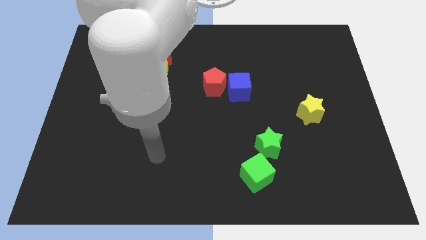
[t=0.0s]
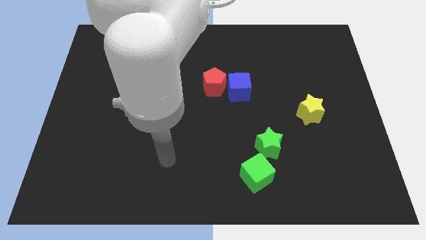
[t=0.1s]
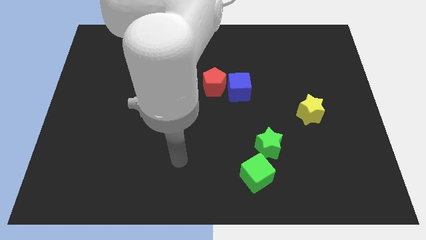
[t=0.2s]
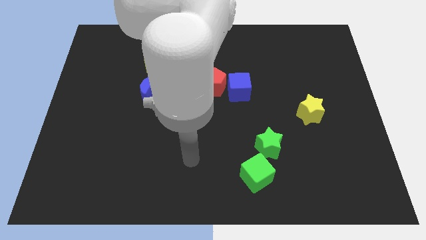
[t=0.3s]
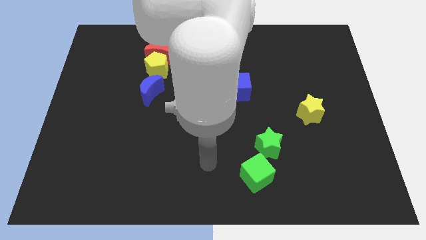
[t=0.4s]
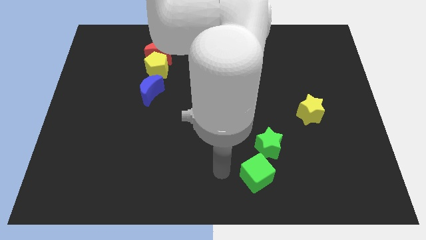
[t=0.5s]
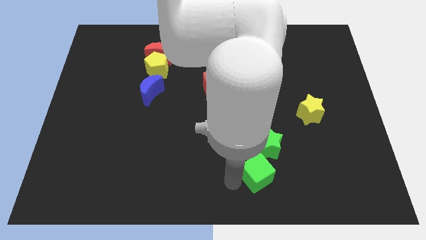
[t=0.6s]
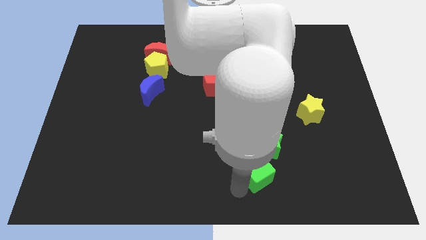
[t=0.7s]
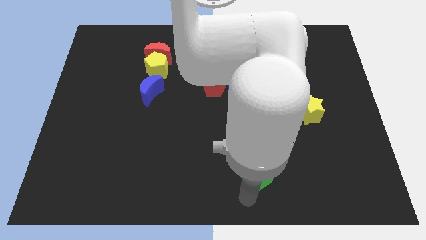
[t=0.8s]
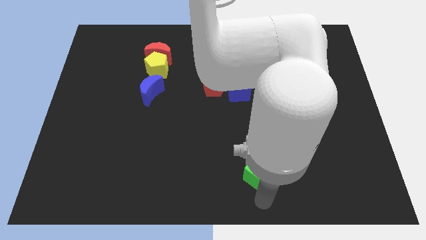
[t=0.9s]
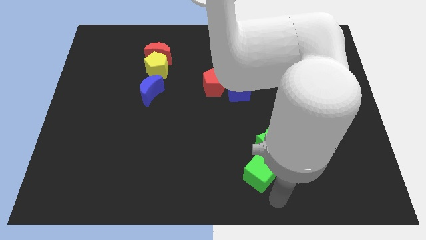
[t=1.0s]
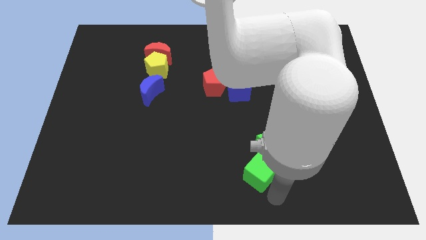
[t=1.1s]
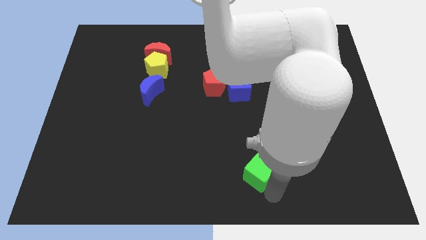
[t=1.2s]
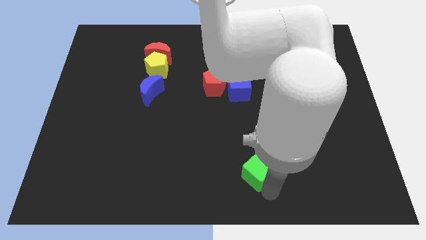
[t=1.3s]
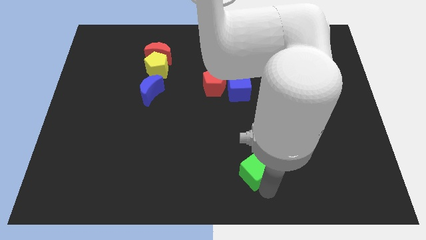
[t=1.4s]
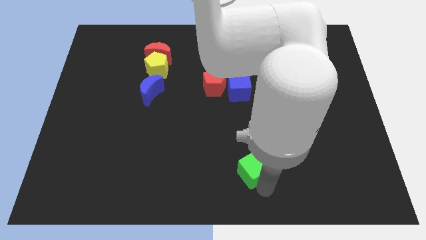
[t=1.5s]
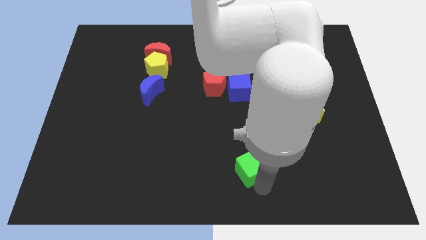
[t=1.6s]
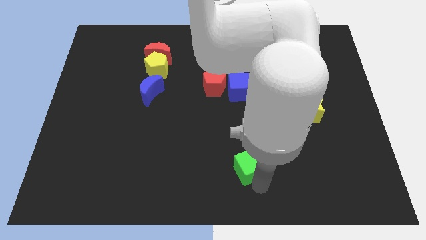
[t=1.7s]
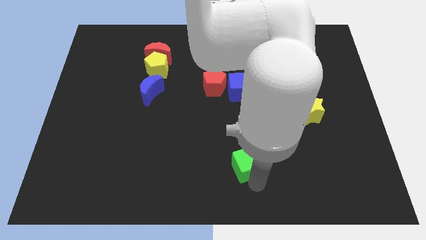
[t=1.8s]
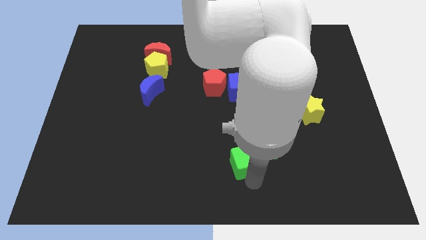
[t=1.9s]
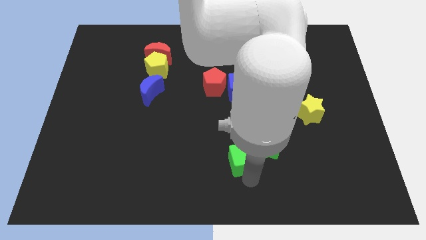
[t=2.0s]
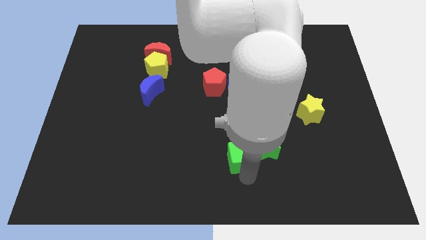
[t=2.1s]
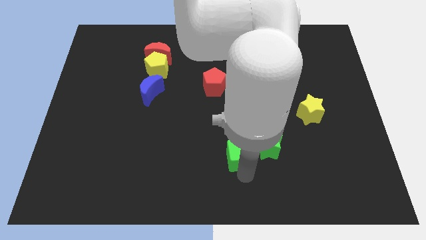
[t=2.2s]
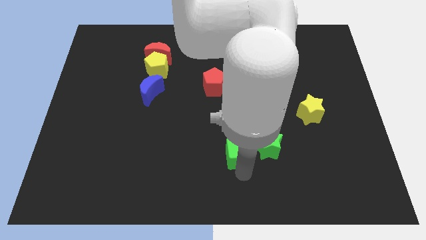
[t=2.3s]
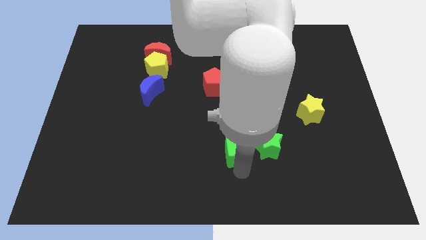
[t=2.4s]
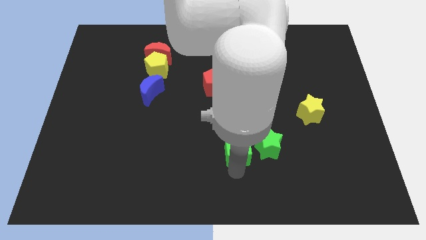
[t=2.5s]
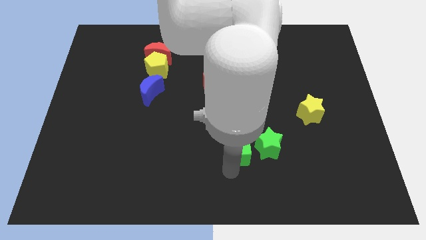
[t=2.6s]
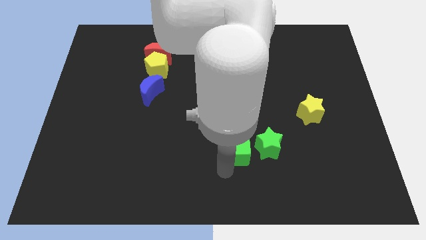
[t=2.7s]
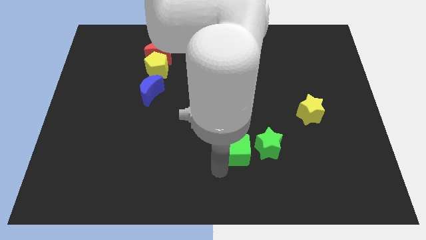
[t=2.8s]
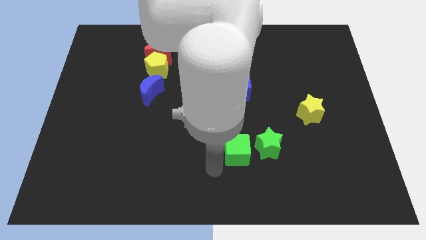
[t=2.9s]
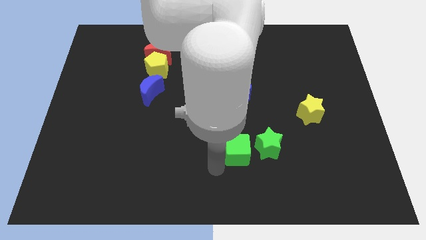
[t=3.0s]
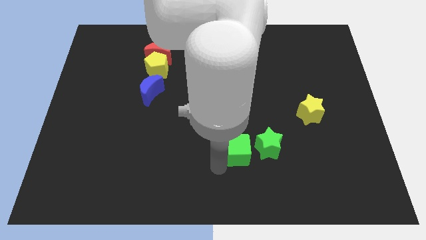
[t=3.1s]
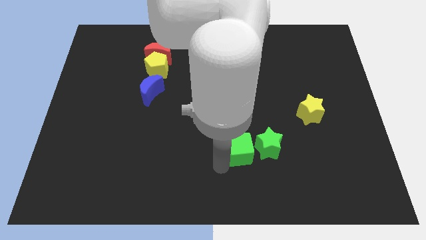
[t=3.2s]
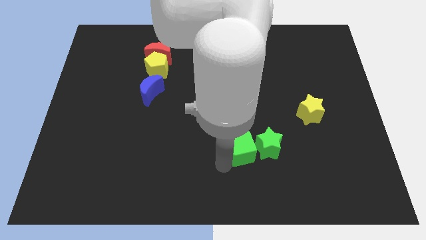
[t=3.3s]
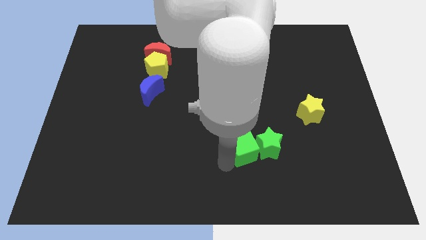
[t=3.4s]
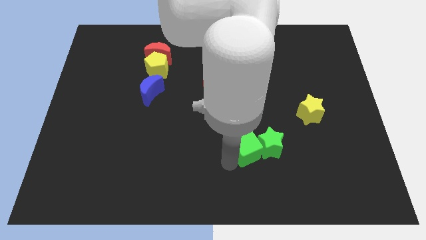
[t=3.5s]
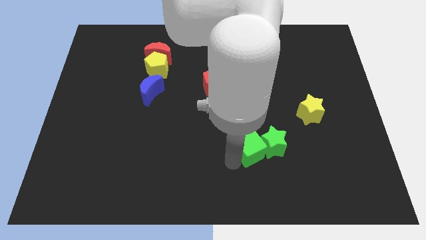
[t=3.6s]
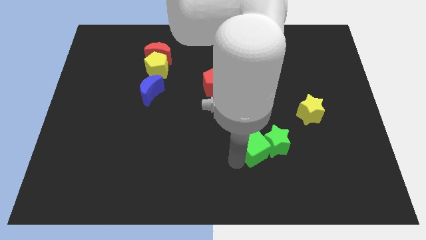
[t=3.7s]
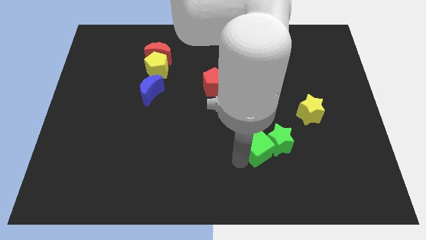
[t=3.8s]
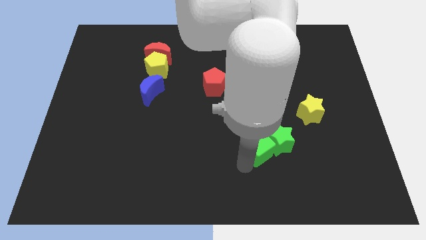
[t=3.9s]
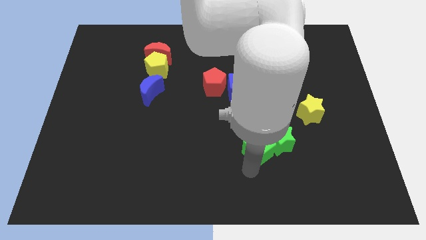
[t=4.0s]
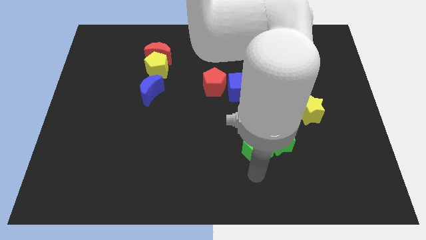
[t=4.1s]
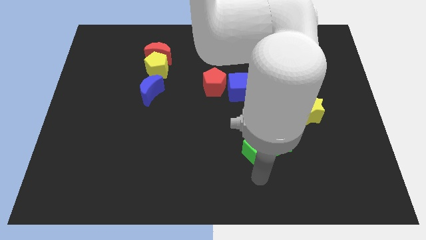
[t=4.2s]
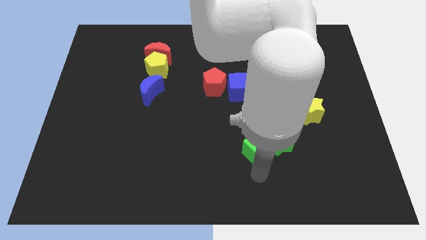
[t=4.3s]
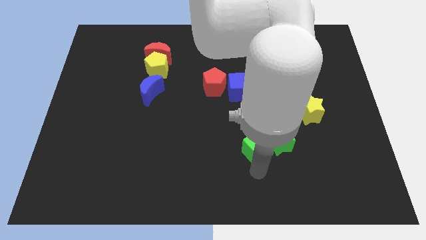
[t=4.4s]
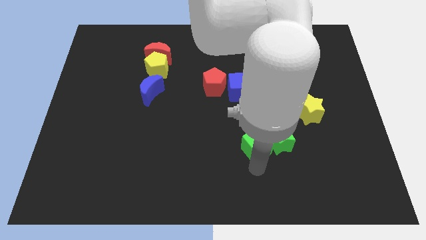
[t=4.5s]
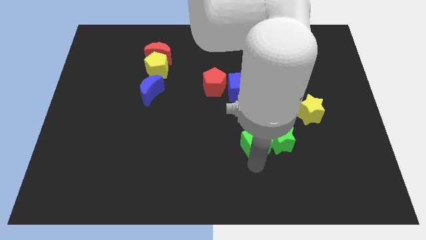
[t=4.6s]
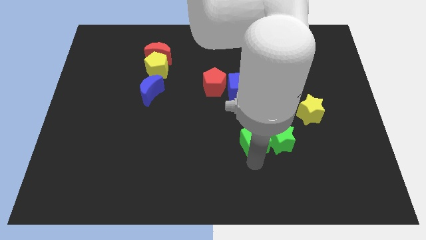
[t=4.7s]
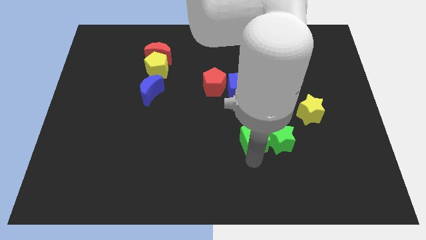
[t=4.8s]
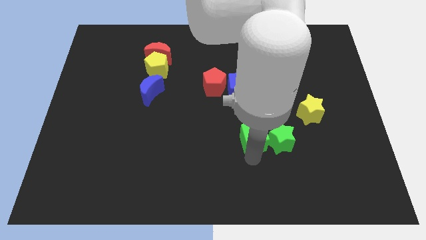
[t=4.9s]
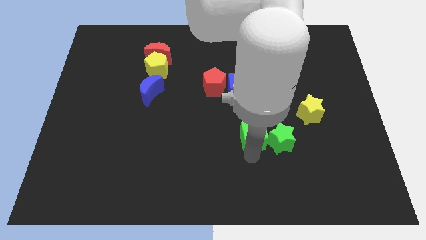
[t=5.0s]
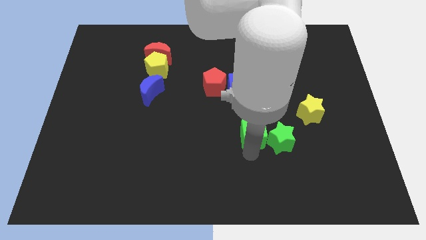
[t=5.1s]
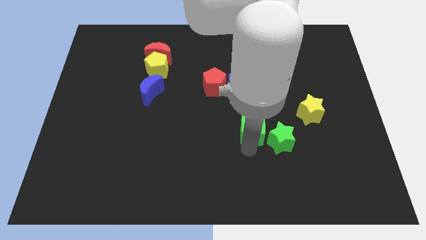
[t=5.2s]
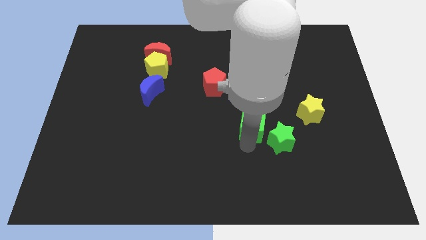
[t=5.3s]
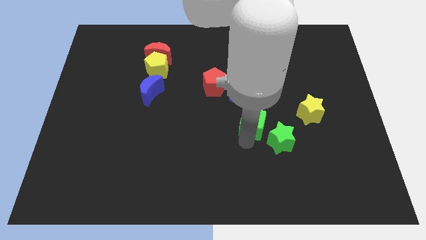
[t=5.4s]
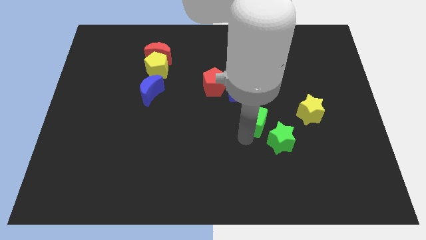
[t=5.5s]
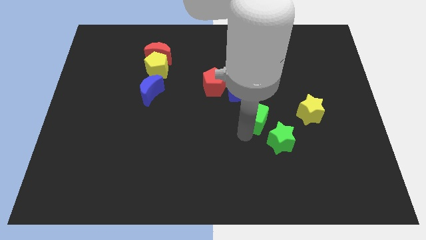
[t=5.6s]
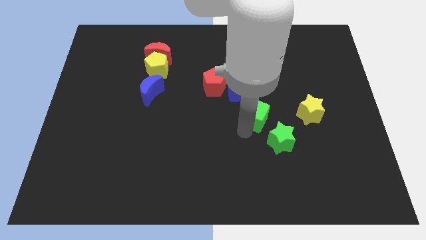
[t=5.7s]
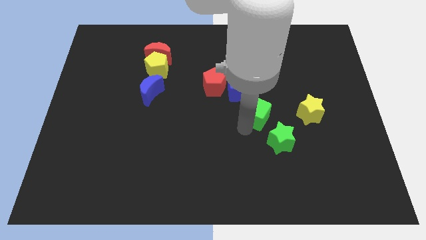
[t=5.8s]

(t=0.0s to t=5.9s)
move the green cube to the top of the green star

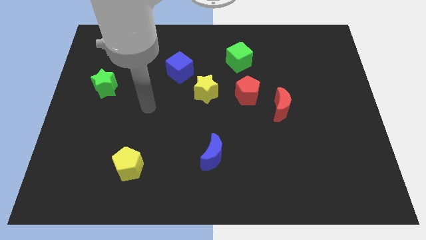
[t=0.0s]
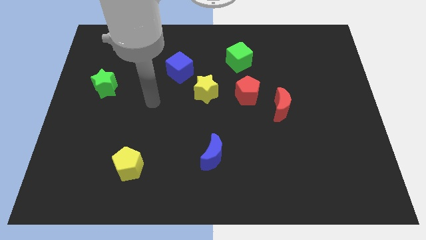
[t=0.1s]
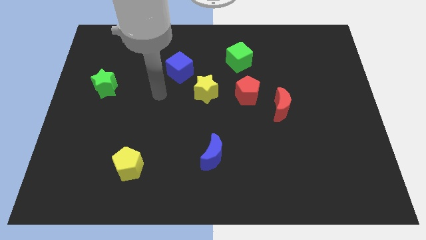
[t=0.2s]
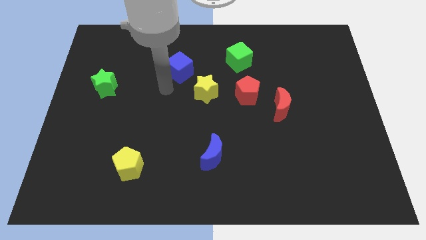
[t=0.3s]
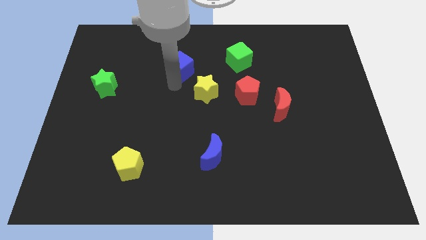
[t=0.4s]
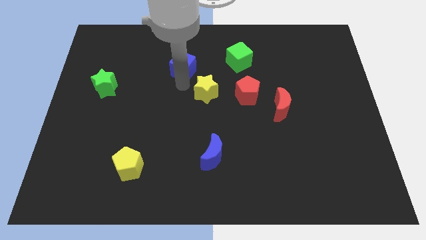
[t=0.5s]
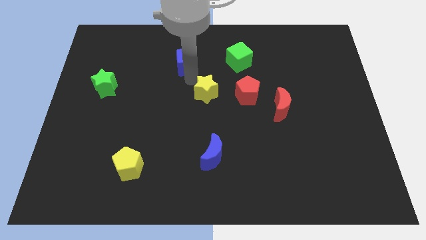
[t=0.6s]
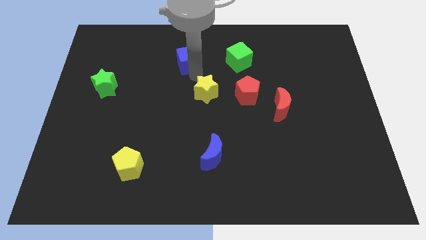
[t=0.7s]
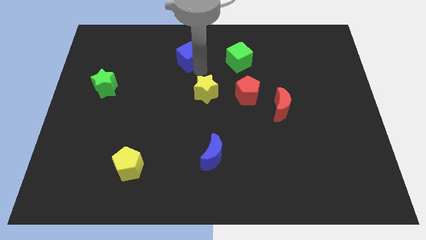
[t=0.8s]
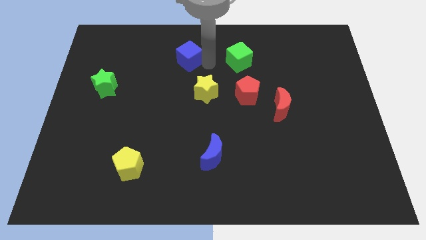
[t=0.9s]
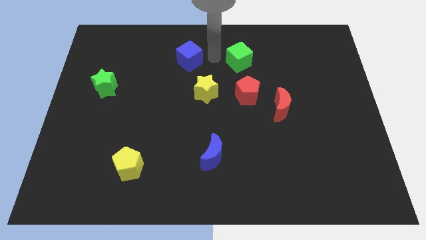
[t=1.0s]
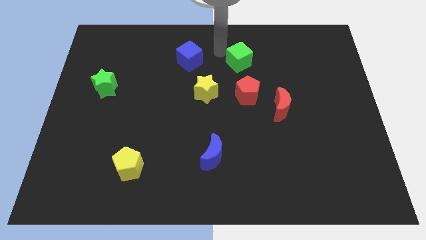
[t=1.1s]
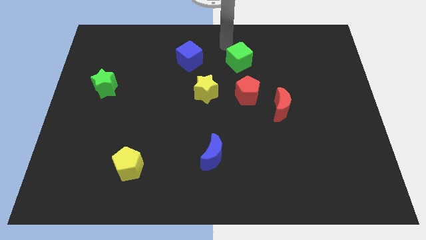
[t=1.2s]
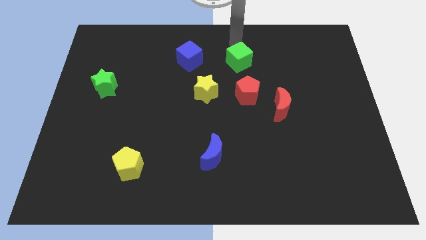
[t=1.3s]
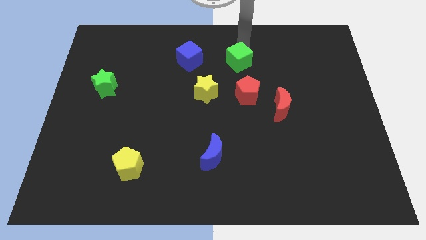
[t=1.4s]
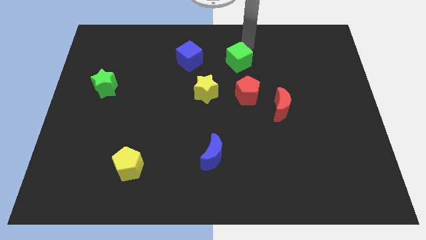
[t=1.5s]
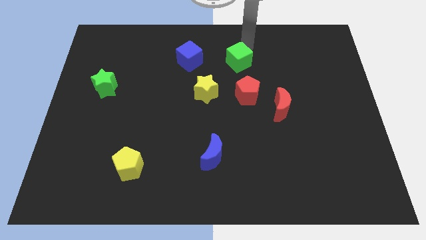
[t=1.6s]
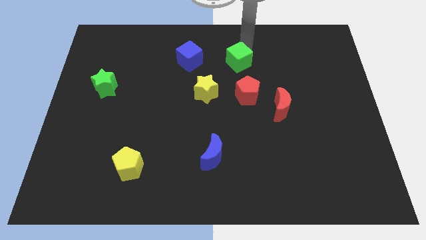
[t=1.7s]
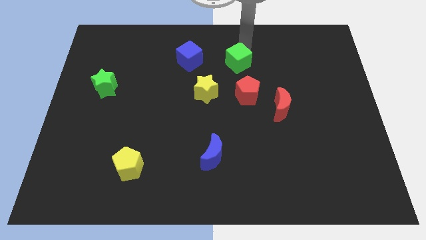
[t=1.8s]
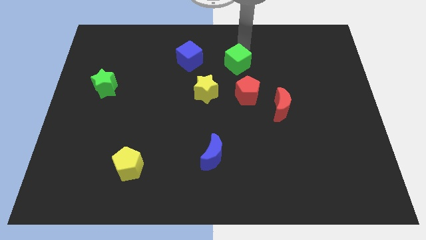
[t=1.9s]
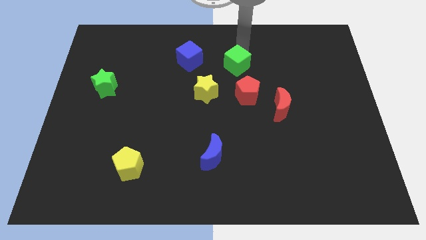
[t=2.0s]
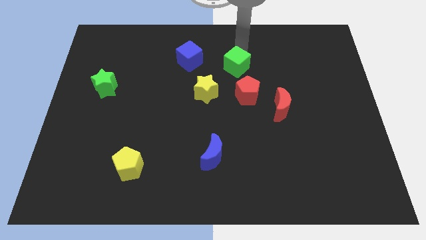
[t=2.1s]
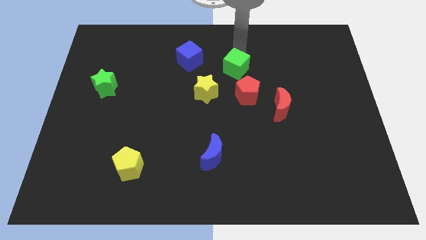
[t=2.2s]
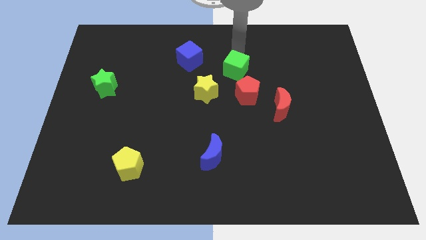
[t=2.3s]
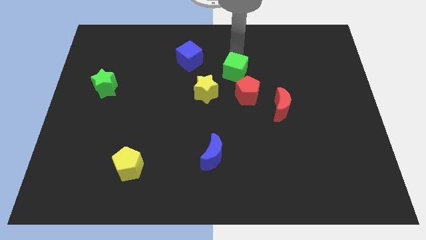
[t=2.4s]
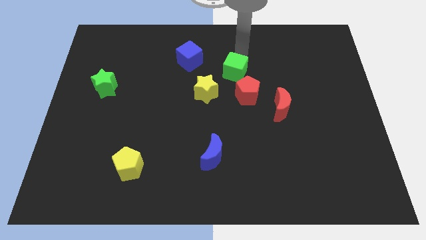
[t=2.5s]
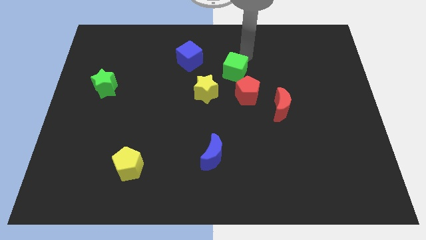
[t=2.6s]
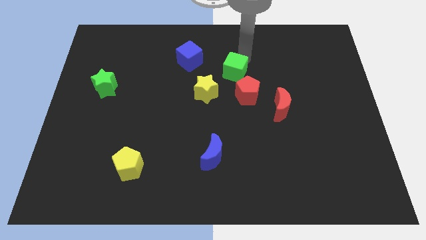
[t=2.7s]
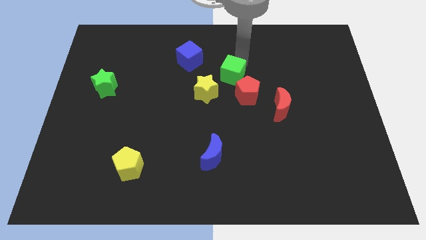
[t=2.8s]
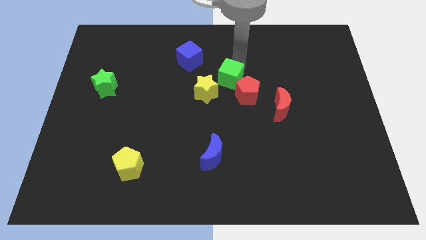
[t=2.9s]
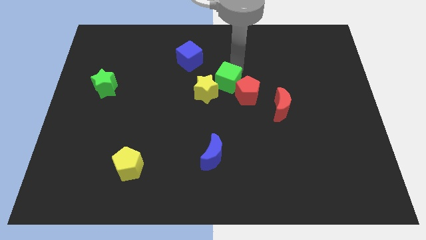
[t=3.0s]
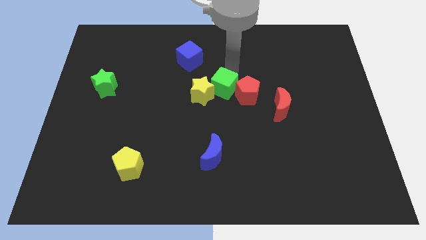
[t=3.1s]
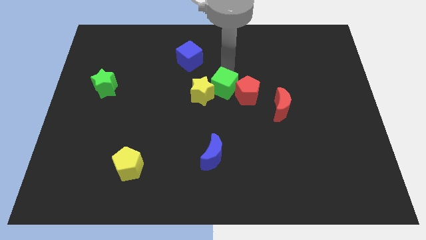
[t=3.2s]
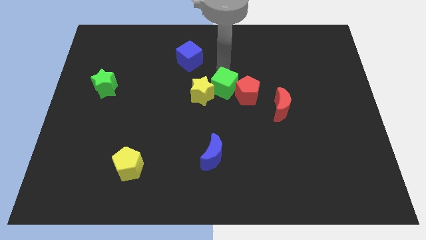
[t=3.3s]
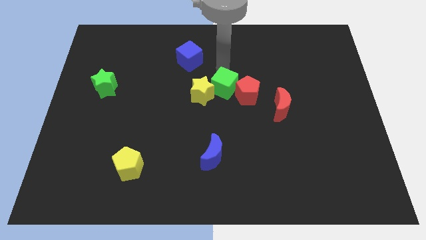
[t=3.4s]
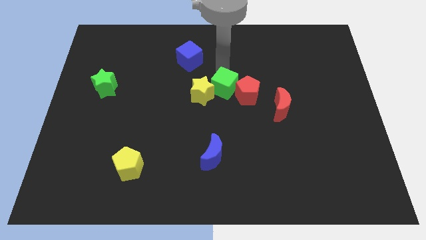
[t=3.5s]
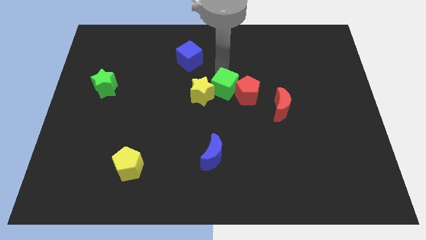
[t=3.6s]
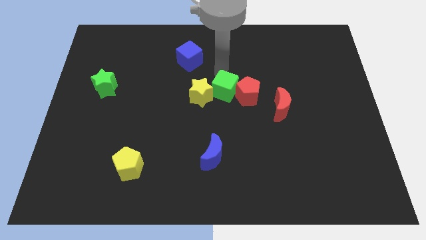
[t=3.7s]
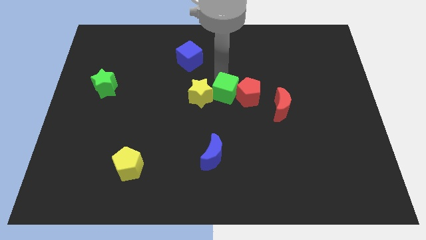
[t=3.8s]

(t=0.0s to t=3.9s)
move the green cube to the bottom left side of the red pentagon
